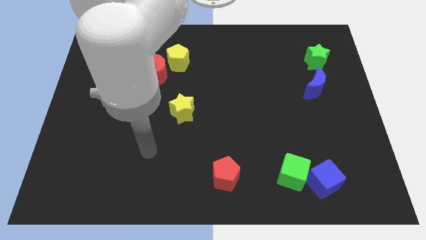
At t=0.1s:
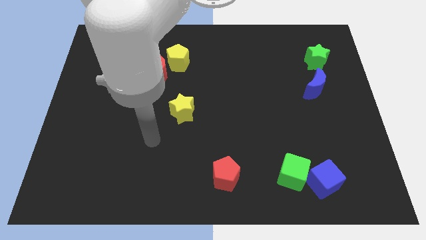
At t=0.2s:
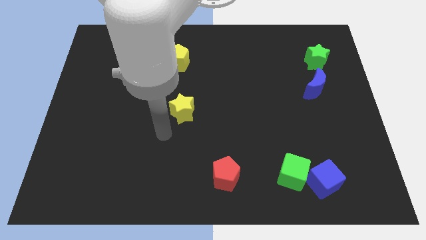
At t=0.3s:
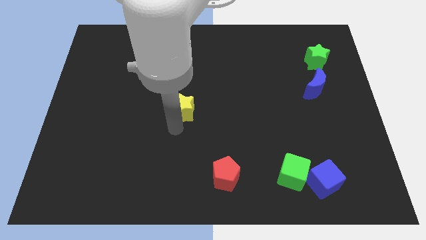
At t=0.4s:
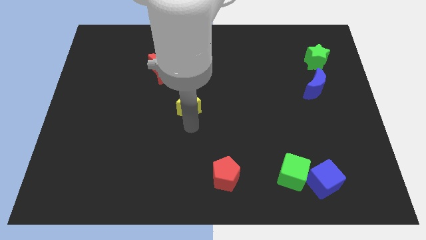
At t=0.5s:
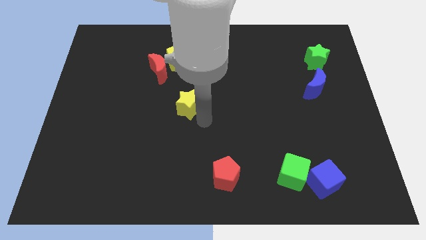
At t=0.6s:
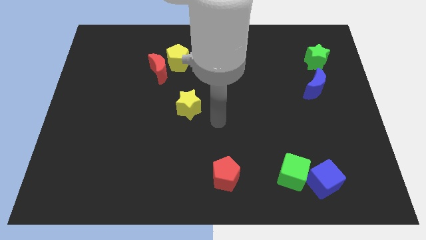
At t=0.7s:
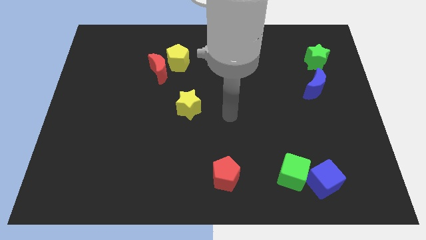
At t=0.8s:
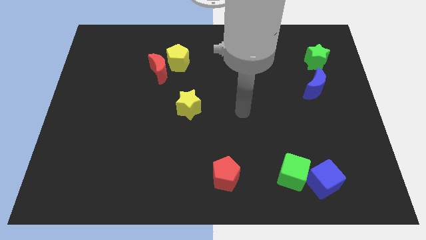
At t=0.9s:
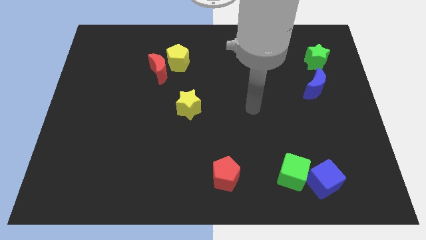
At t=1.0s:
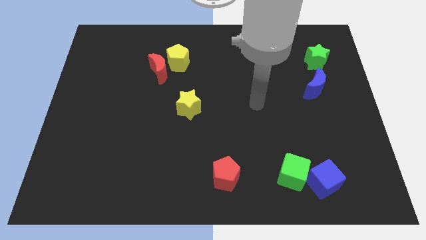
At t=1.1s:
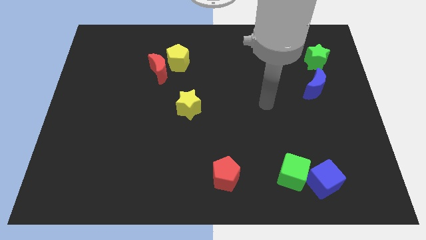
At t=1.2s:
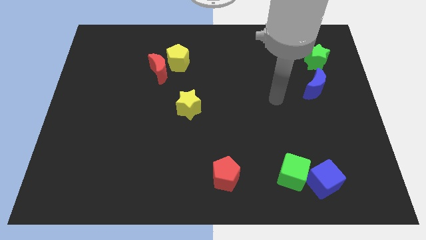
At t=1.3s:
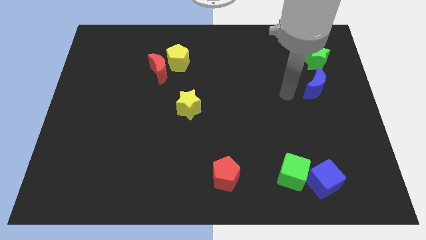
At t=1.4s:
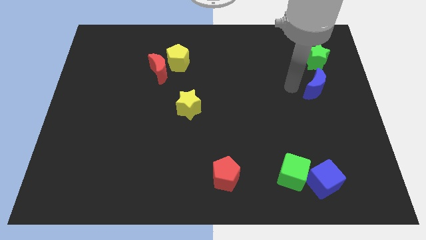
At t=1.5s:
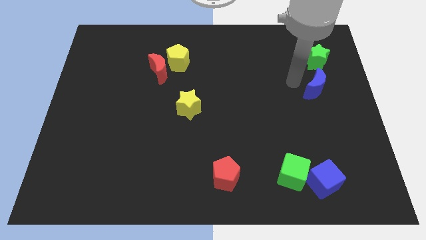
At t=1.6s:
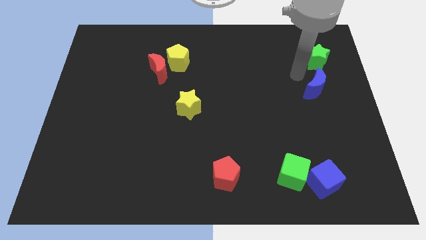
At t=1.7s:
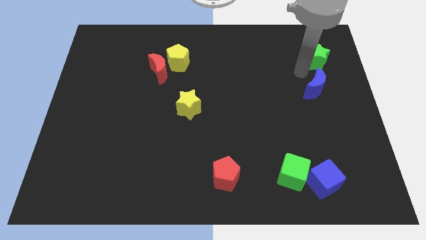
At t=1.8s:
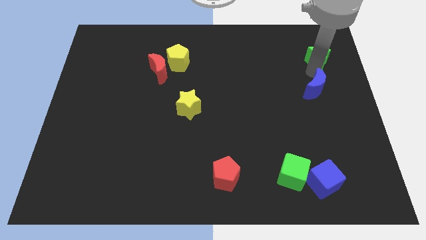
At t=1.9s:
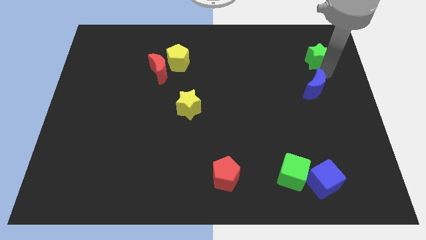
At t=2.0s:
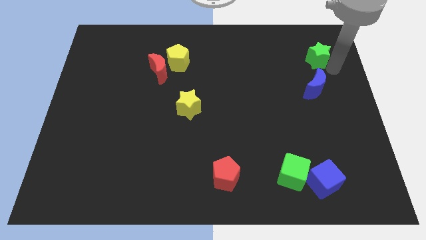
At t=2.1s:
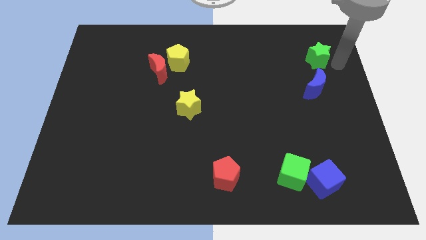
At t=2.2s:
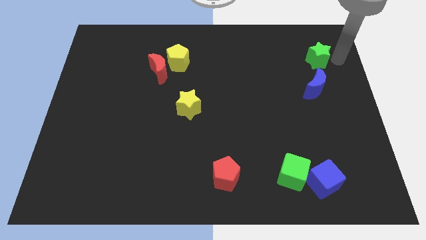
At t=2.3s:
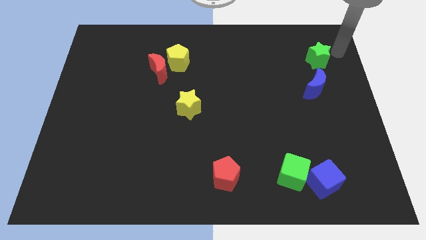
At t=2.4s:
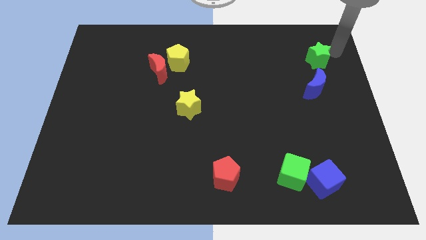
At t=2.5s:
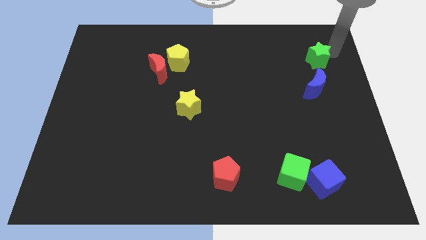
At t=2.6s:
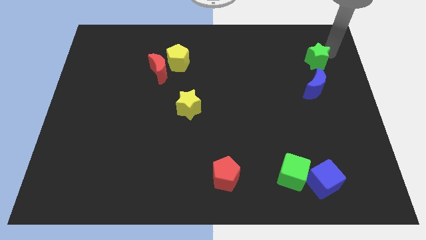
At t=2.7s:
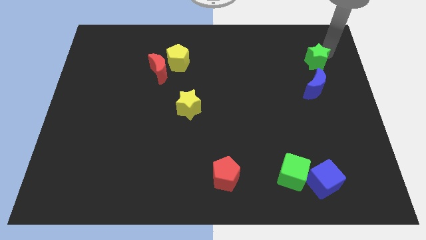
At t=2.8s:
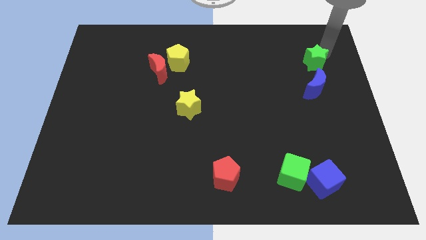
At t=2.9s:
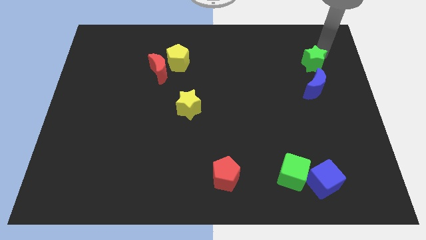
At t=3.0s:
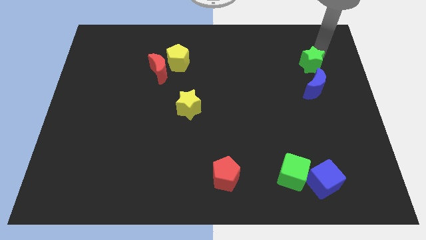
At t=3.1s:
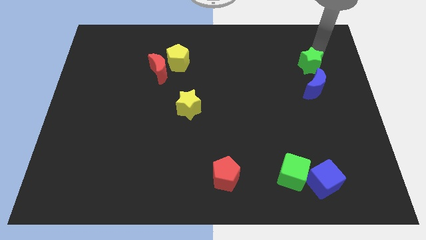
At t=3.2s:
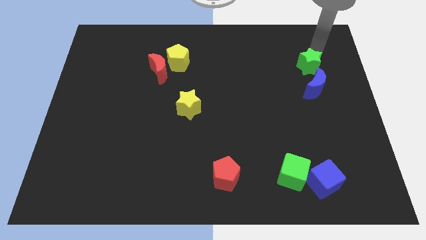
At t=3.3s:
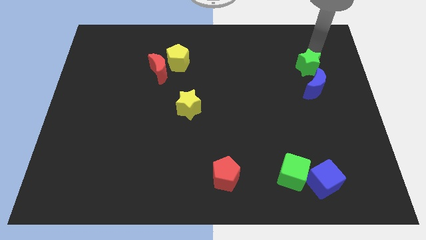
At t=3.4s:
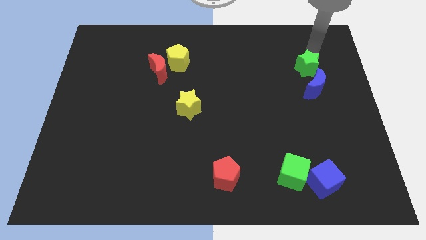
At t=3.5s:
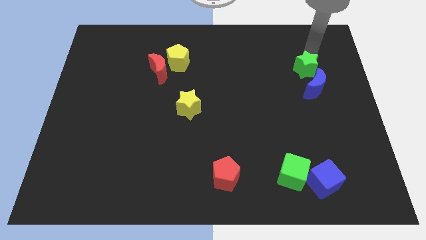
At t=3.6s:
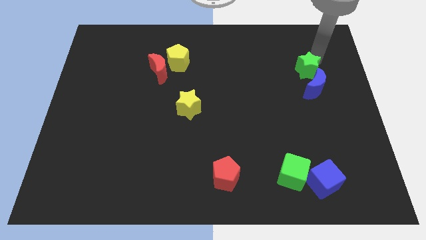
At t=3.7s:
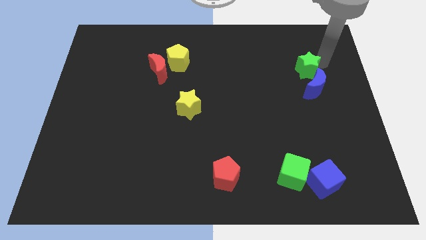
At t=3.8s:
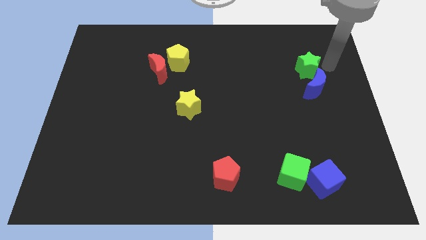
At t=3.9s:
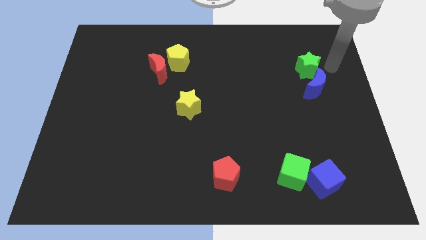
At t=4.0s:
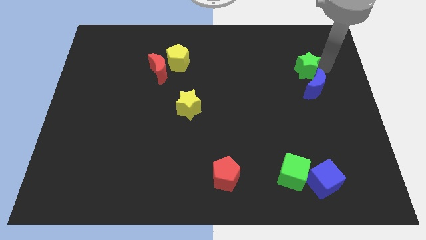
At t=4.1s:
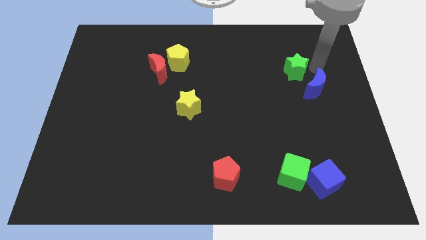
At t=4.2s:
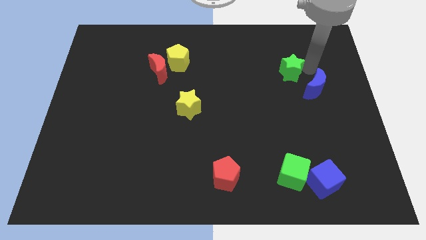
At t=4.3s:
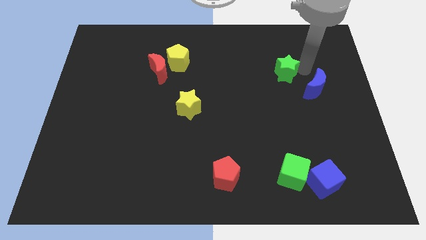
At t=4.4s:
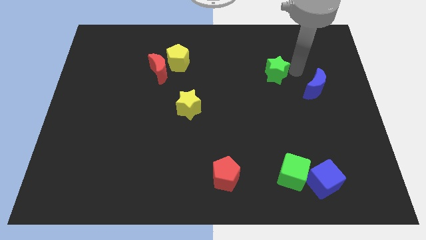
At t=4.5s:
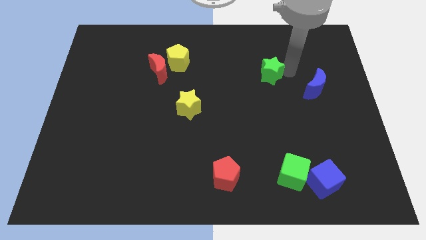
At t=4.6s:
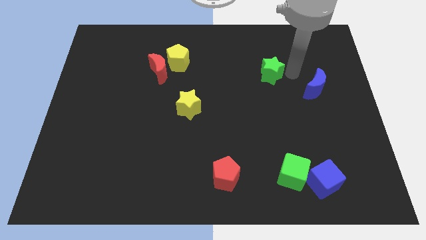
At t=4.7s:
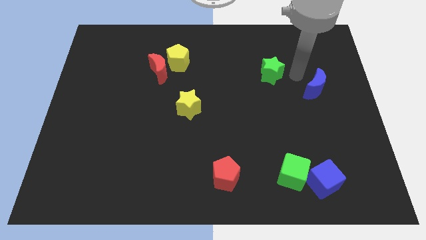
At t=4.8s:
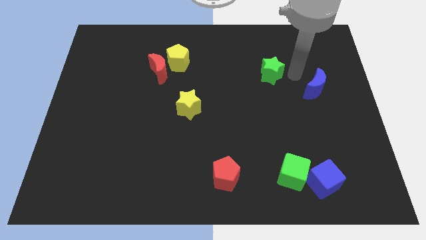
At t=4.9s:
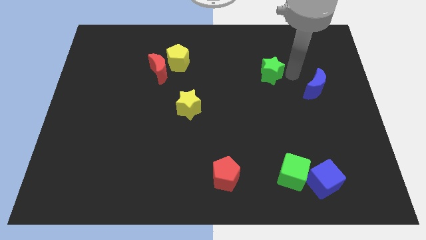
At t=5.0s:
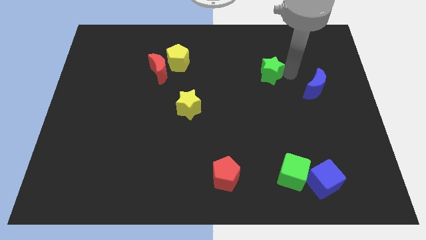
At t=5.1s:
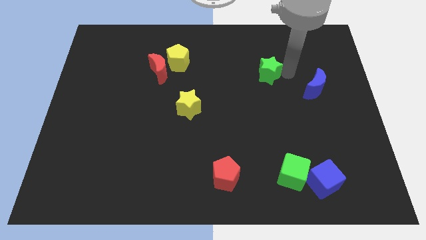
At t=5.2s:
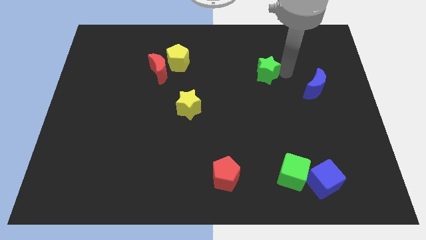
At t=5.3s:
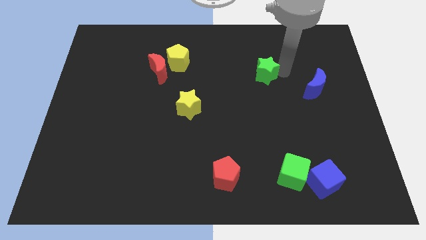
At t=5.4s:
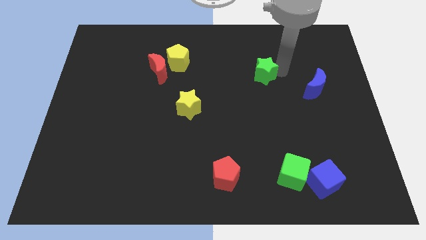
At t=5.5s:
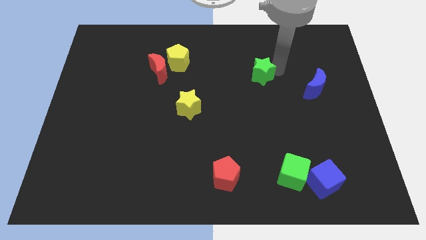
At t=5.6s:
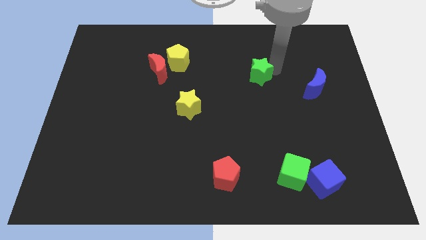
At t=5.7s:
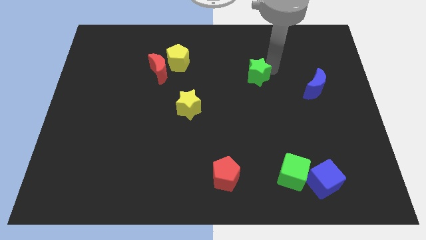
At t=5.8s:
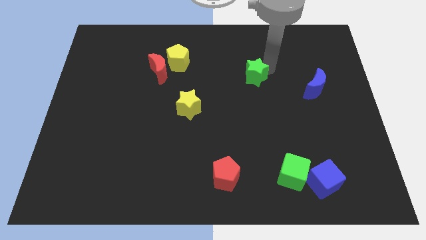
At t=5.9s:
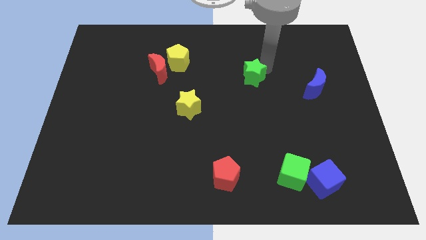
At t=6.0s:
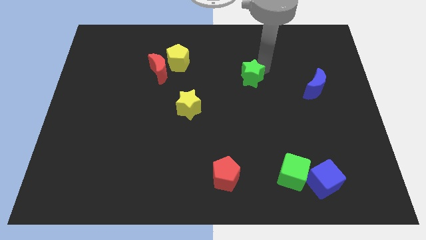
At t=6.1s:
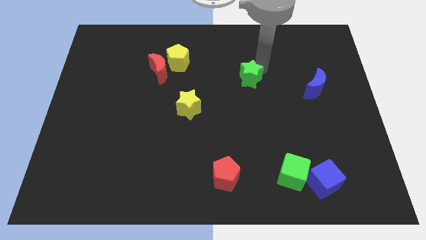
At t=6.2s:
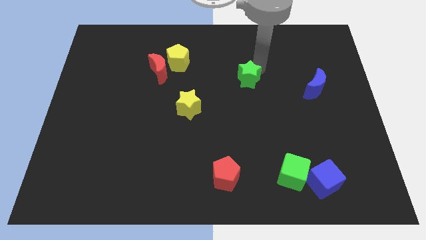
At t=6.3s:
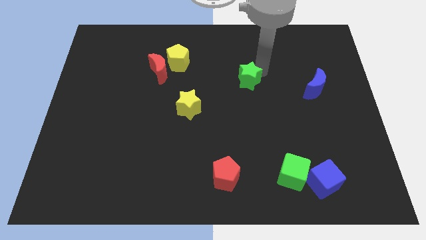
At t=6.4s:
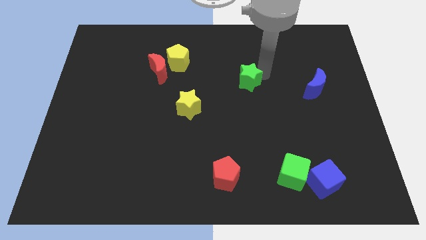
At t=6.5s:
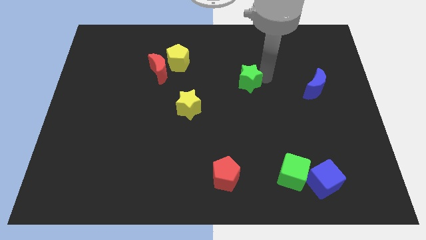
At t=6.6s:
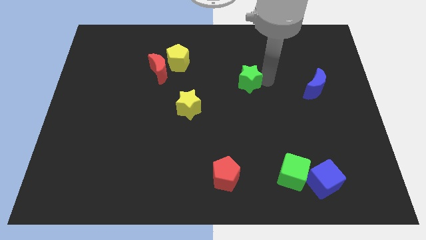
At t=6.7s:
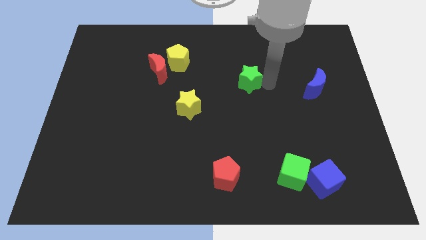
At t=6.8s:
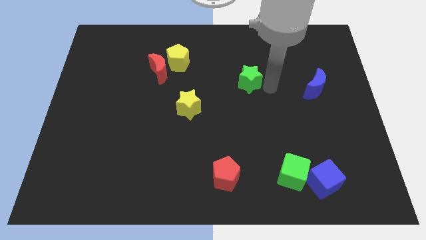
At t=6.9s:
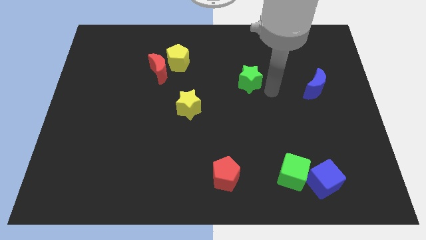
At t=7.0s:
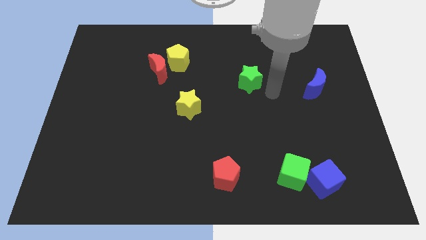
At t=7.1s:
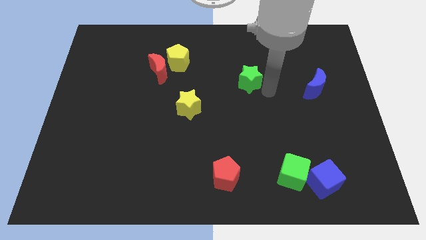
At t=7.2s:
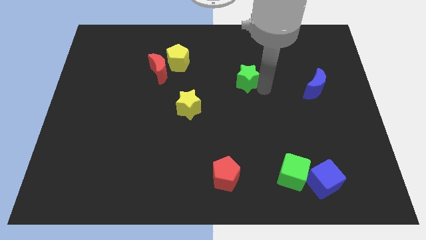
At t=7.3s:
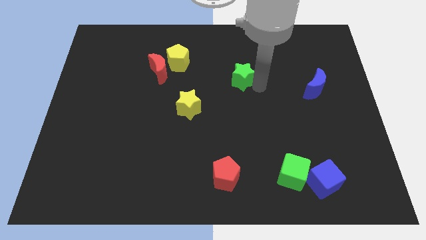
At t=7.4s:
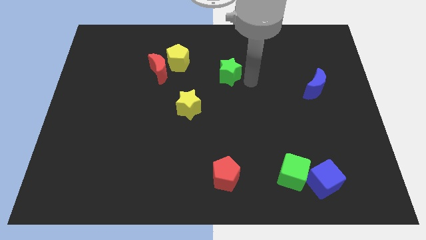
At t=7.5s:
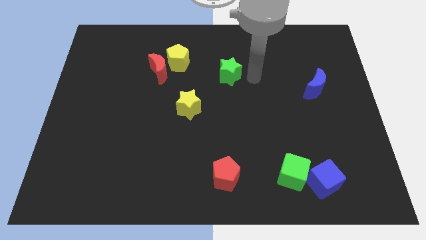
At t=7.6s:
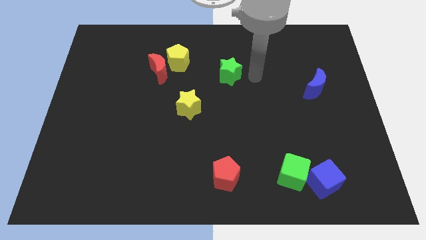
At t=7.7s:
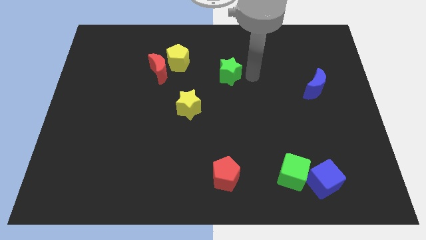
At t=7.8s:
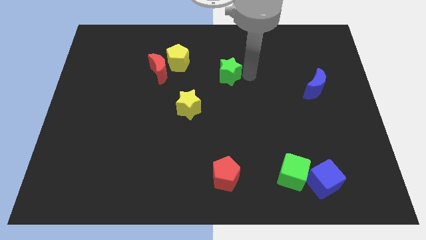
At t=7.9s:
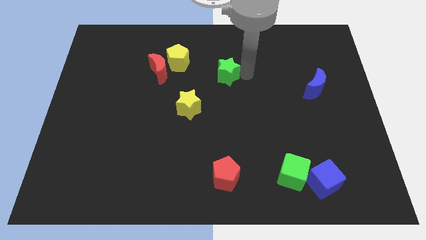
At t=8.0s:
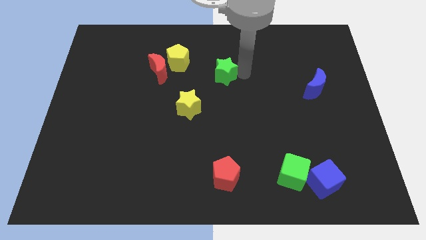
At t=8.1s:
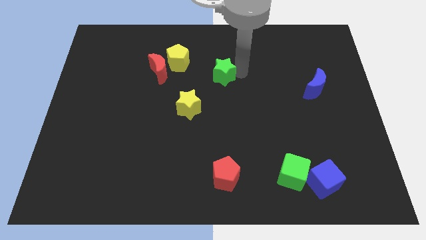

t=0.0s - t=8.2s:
slide the green star right of the red moon
